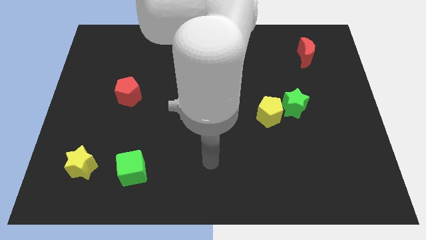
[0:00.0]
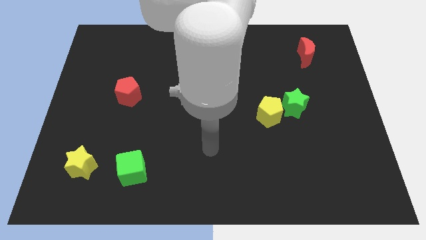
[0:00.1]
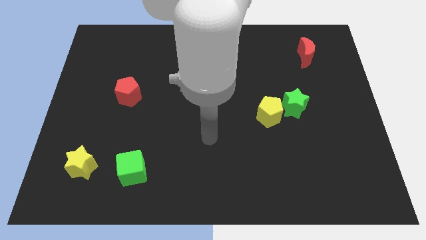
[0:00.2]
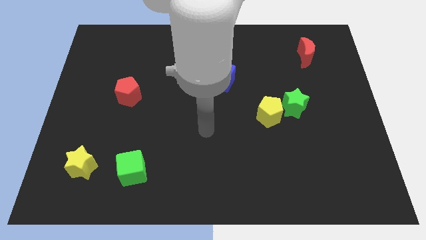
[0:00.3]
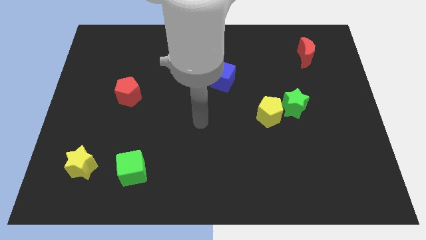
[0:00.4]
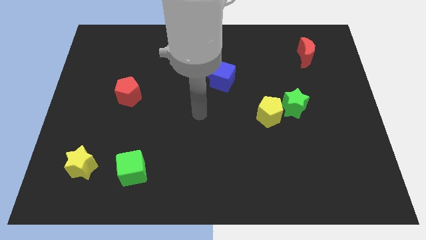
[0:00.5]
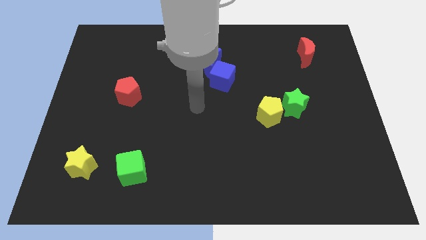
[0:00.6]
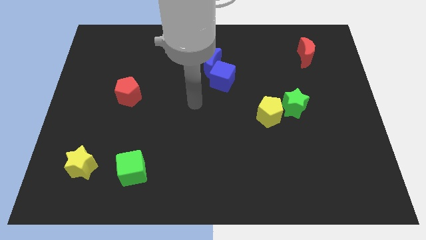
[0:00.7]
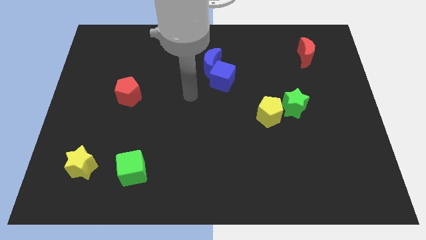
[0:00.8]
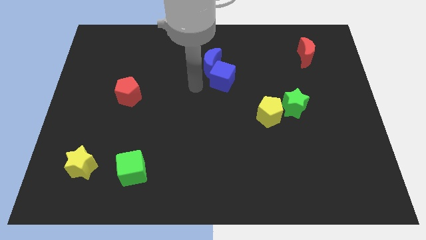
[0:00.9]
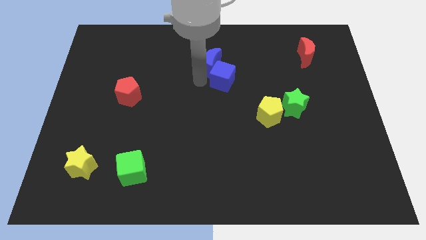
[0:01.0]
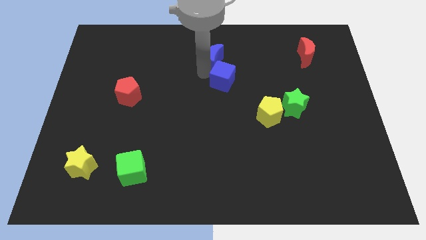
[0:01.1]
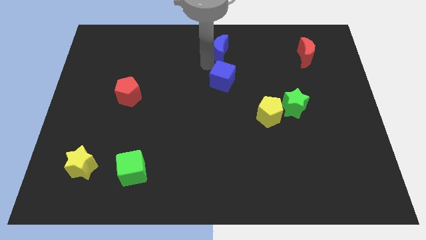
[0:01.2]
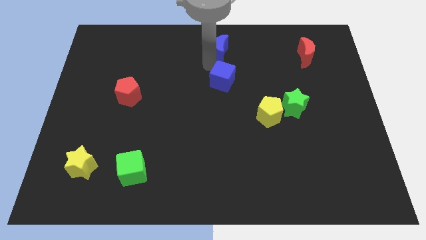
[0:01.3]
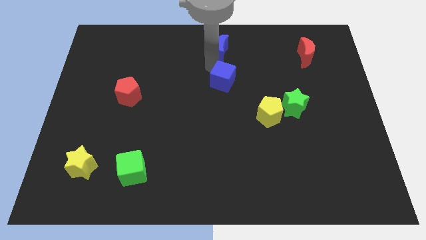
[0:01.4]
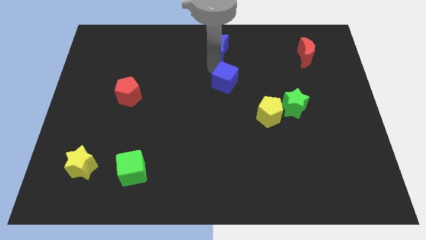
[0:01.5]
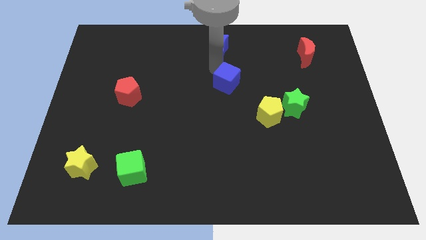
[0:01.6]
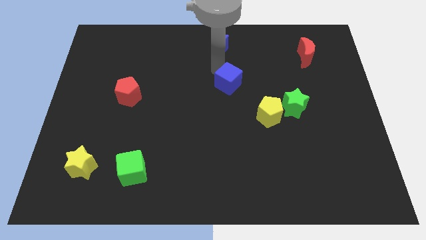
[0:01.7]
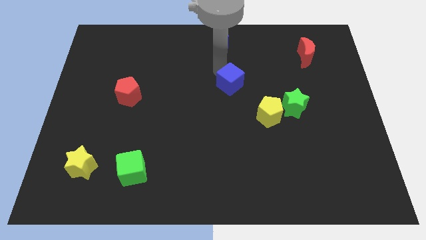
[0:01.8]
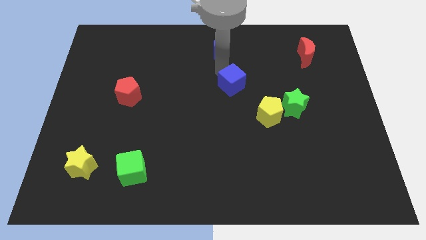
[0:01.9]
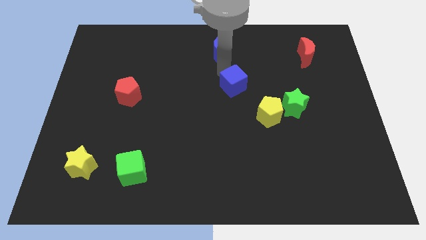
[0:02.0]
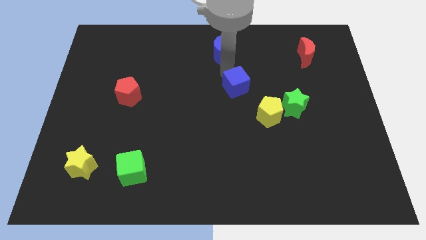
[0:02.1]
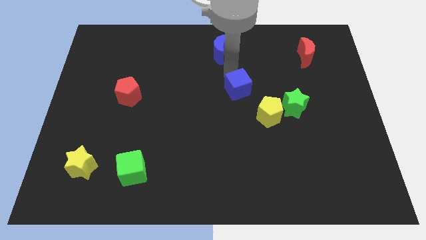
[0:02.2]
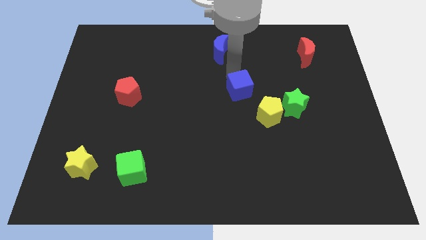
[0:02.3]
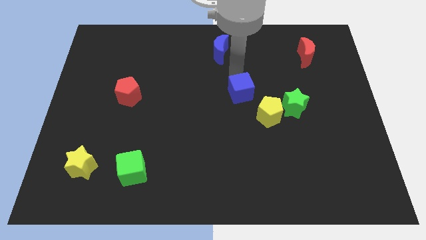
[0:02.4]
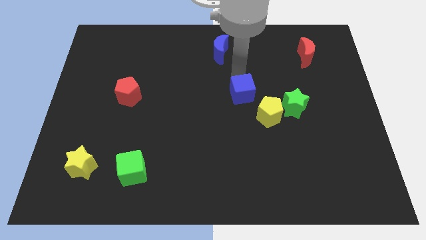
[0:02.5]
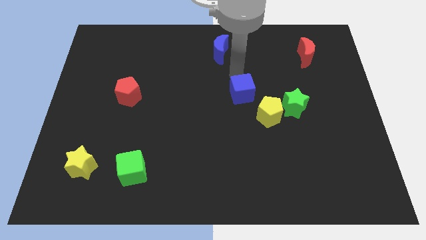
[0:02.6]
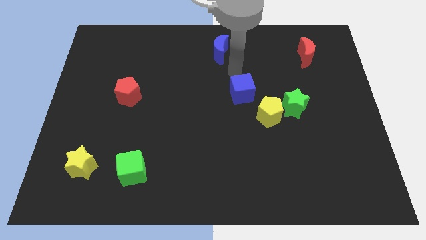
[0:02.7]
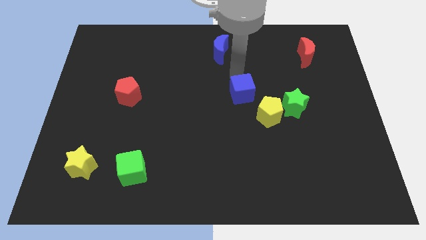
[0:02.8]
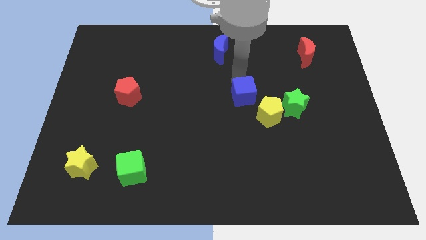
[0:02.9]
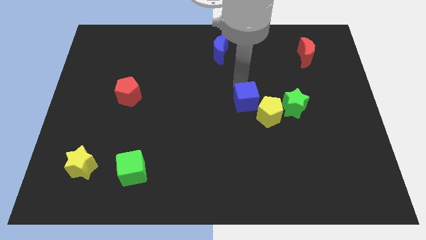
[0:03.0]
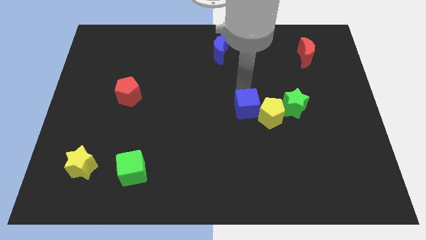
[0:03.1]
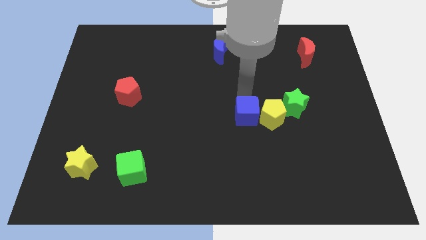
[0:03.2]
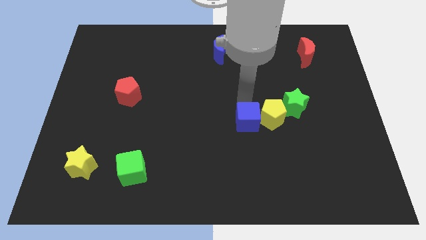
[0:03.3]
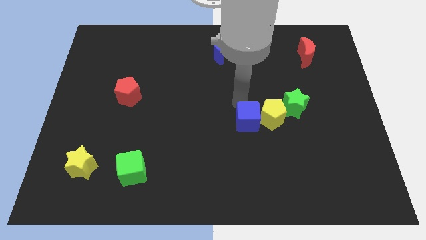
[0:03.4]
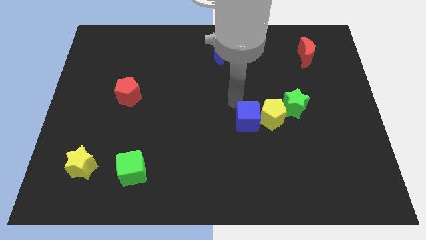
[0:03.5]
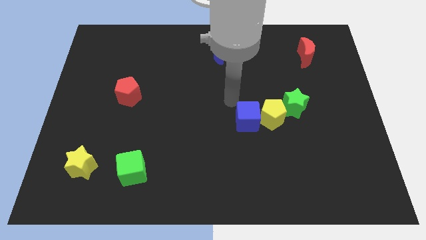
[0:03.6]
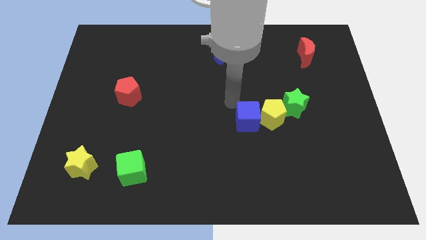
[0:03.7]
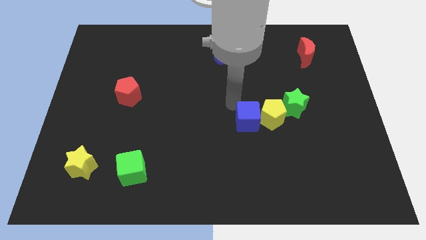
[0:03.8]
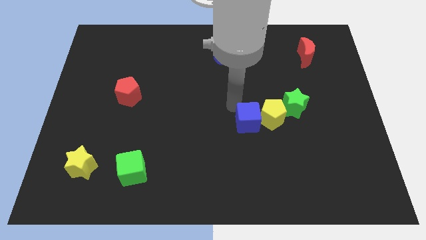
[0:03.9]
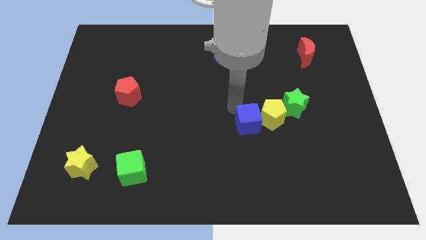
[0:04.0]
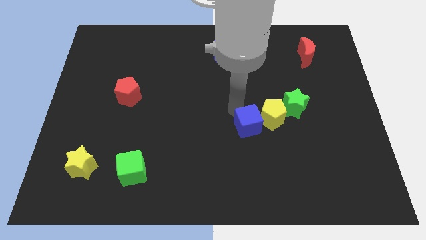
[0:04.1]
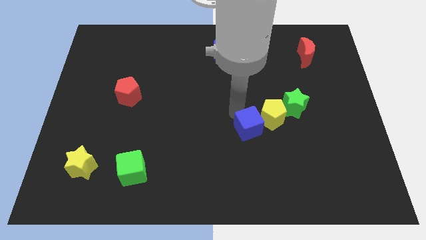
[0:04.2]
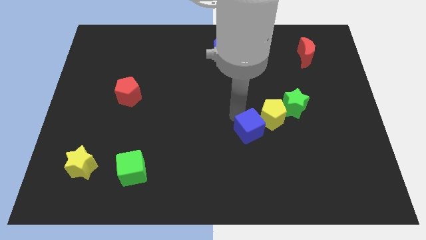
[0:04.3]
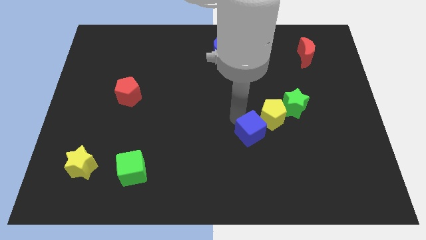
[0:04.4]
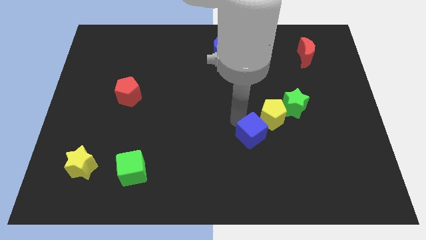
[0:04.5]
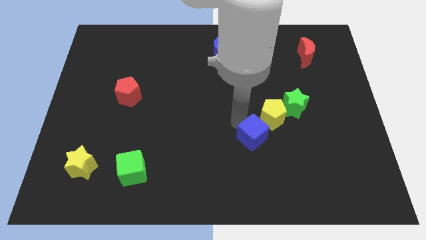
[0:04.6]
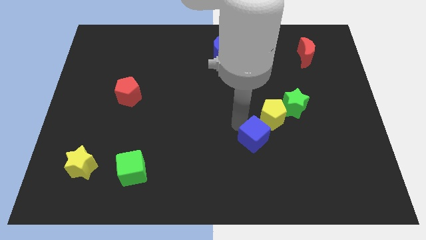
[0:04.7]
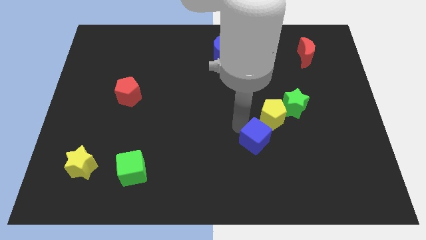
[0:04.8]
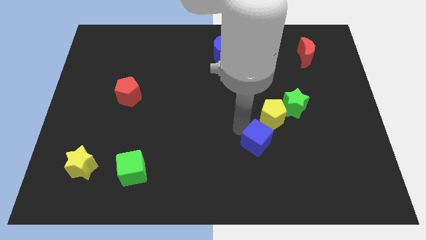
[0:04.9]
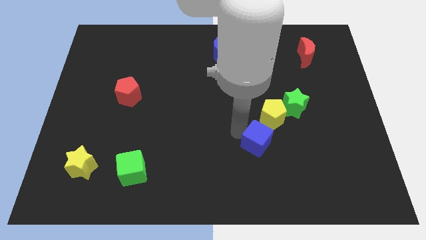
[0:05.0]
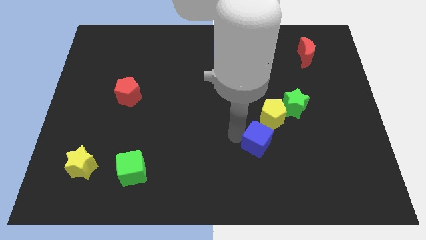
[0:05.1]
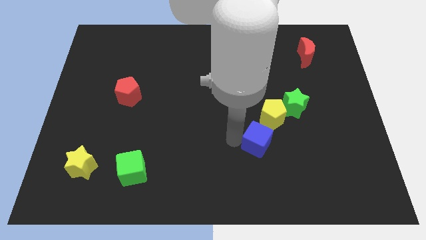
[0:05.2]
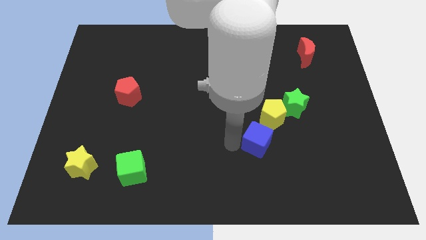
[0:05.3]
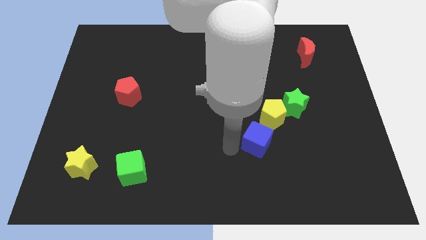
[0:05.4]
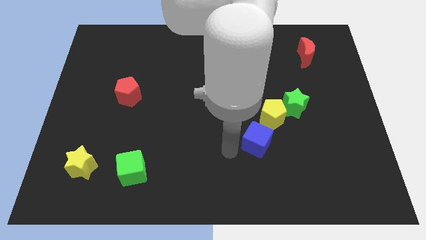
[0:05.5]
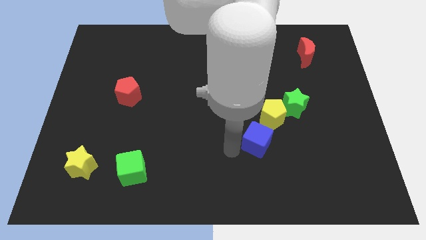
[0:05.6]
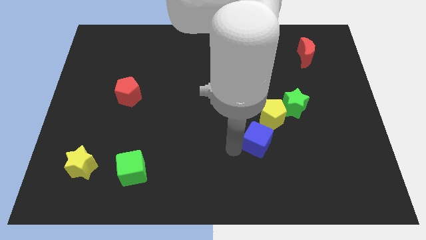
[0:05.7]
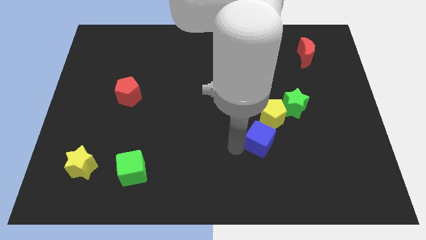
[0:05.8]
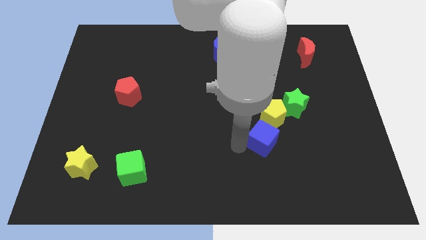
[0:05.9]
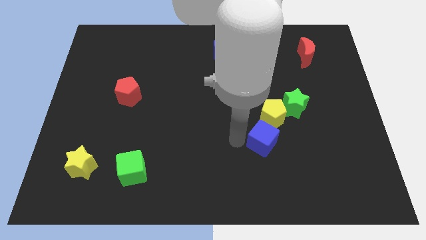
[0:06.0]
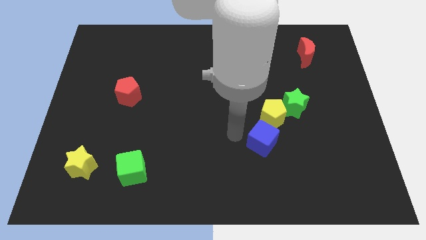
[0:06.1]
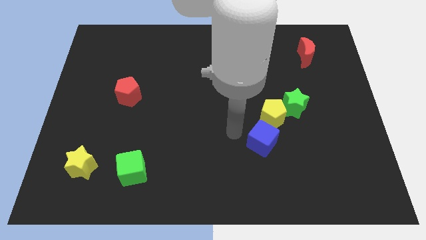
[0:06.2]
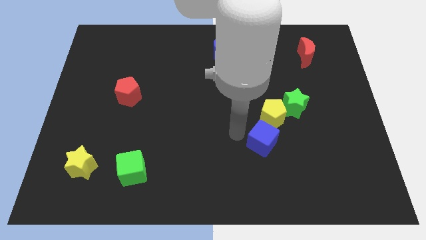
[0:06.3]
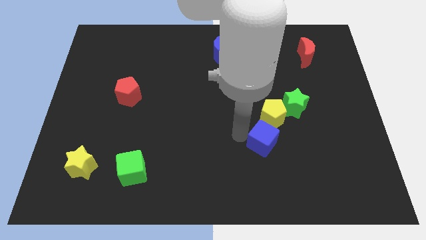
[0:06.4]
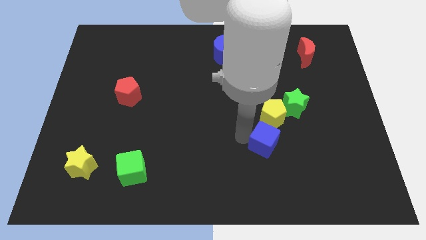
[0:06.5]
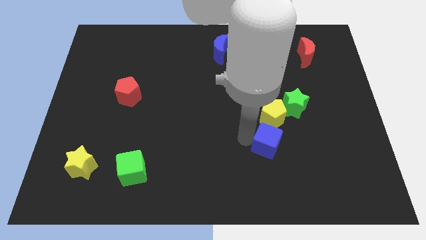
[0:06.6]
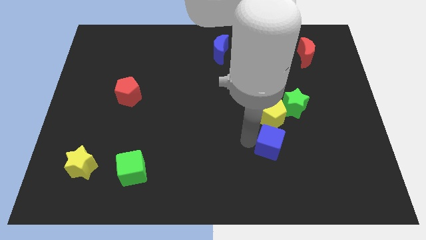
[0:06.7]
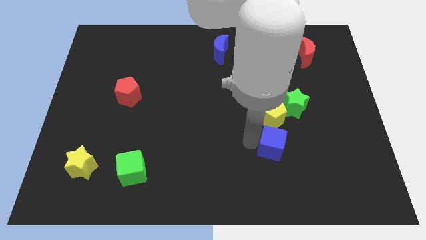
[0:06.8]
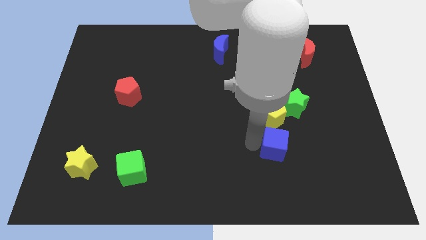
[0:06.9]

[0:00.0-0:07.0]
move the blue cube down and then right

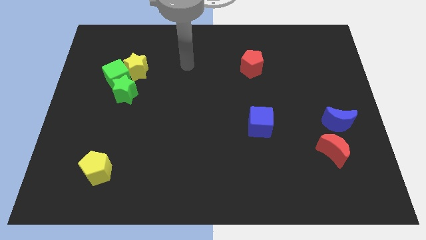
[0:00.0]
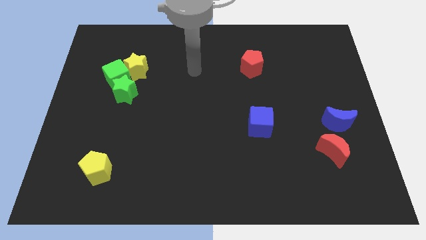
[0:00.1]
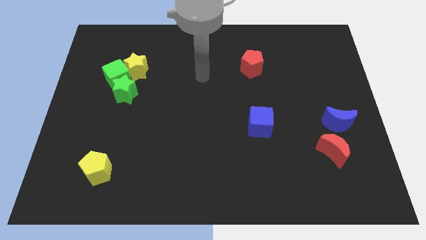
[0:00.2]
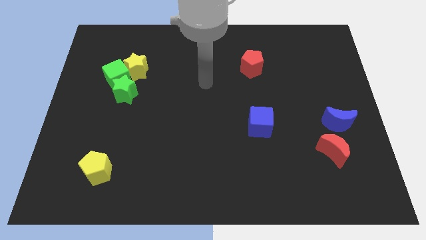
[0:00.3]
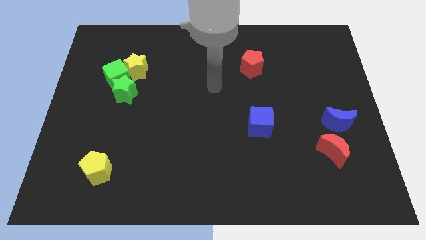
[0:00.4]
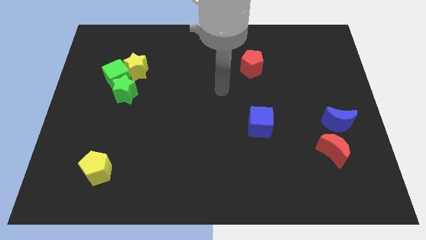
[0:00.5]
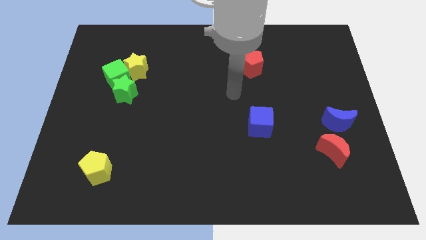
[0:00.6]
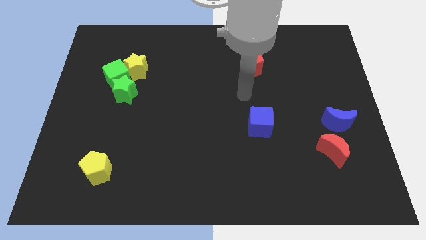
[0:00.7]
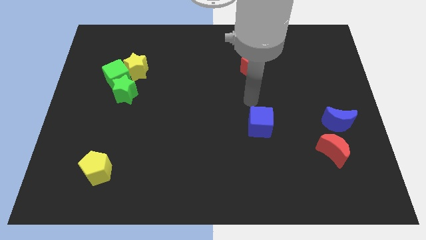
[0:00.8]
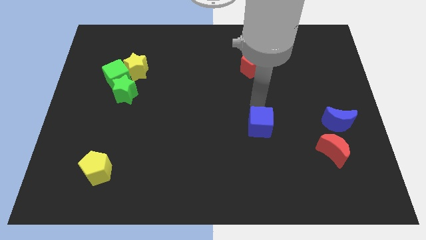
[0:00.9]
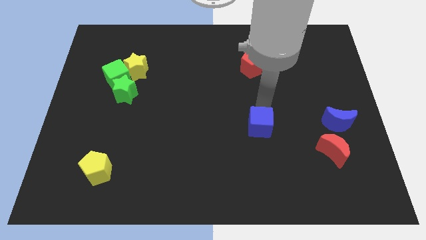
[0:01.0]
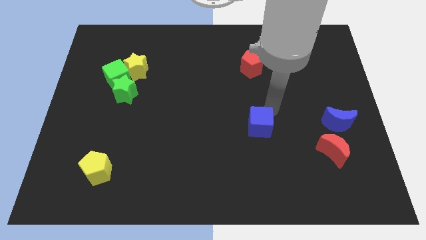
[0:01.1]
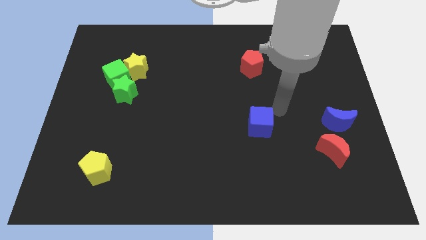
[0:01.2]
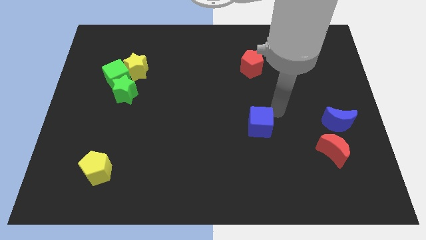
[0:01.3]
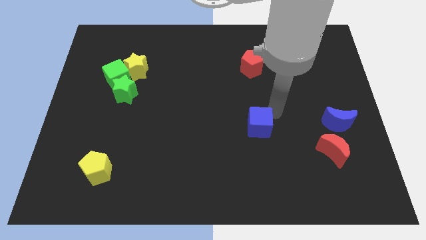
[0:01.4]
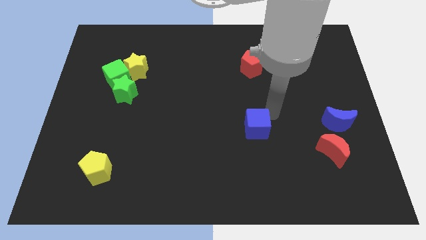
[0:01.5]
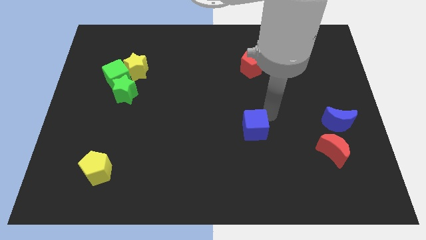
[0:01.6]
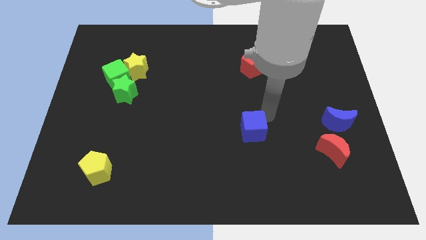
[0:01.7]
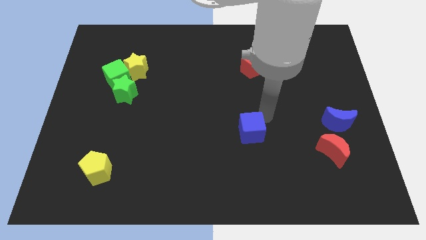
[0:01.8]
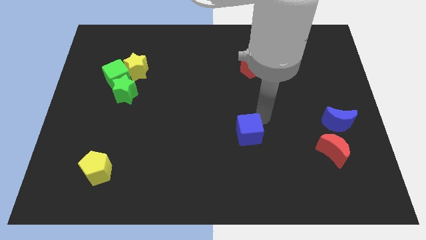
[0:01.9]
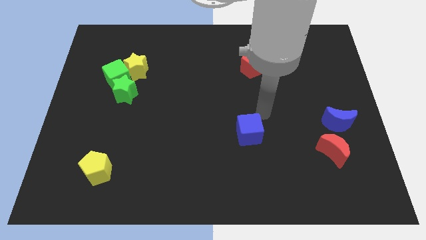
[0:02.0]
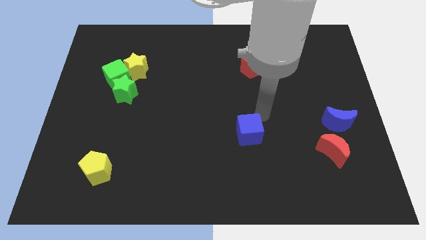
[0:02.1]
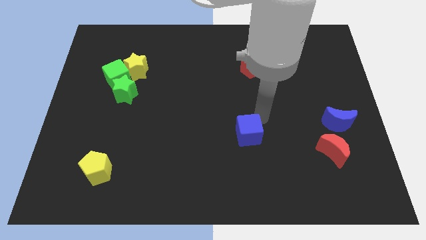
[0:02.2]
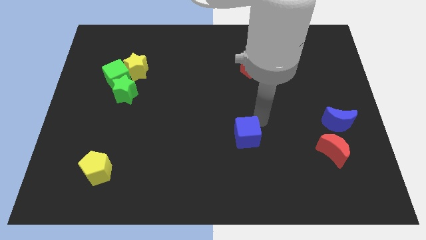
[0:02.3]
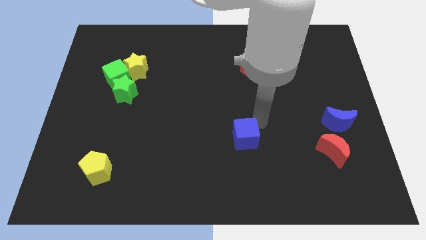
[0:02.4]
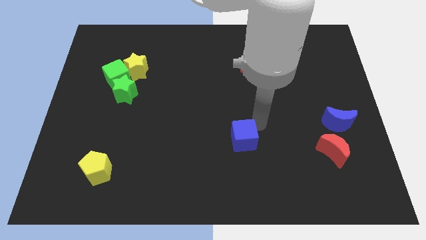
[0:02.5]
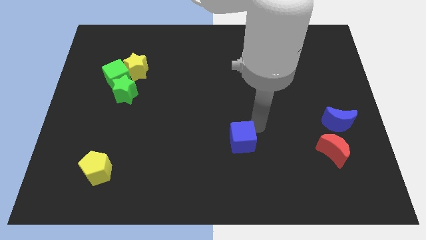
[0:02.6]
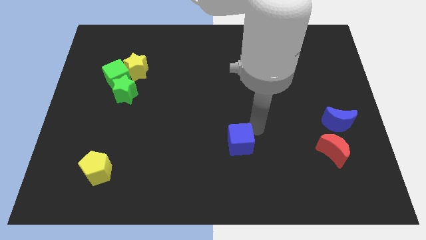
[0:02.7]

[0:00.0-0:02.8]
slightly push the blue cube downwards and left
